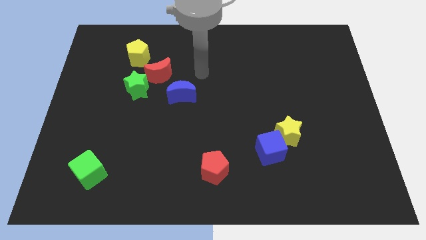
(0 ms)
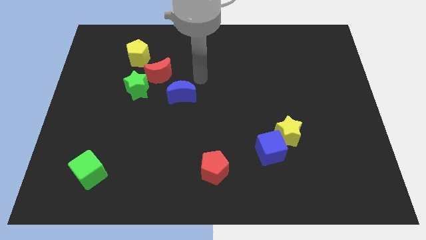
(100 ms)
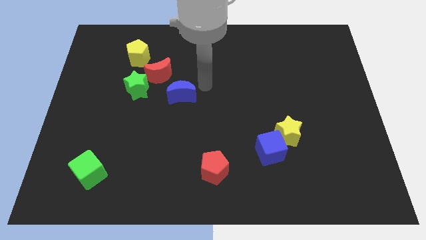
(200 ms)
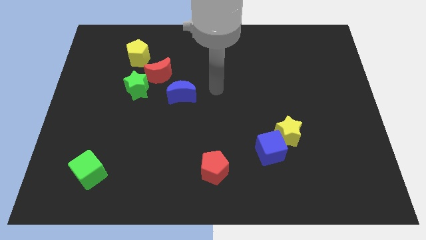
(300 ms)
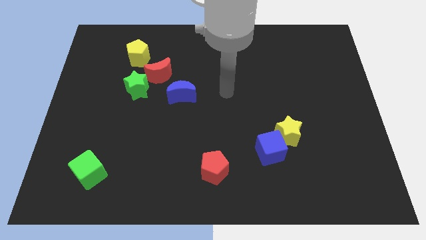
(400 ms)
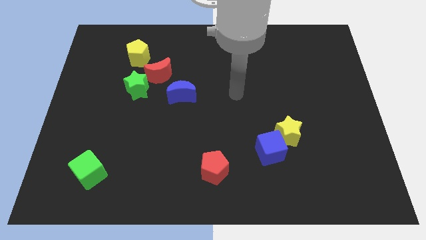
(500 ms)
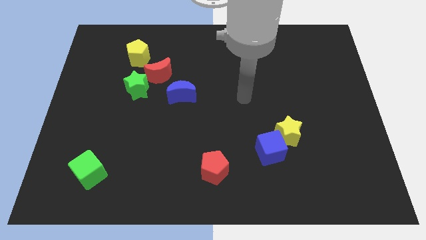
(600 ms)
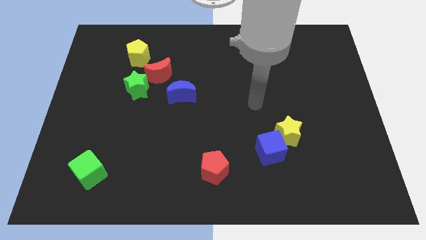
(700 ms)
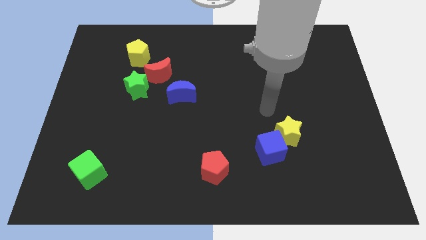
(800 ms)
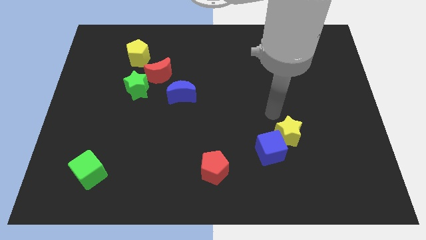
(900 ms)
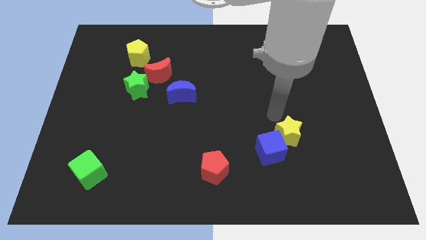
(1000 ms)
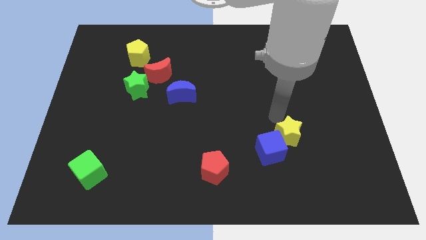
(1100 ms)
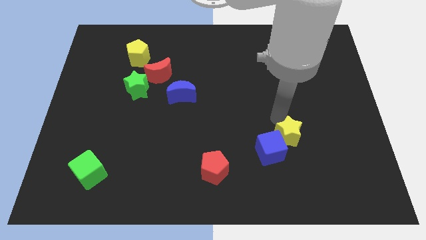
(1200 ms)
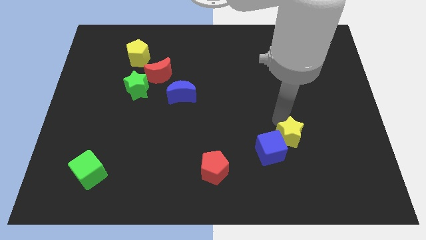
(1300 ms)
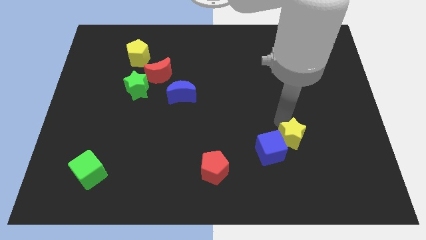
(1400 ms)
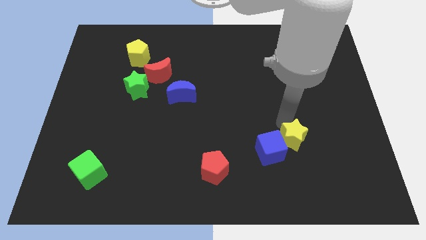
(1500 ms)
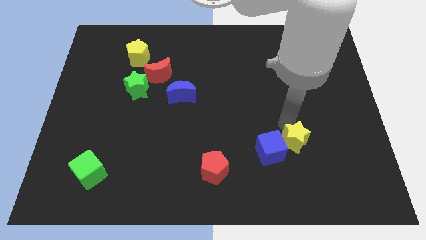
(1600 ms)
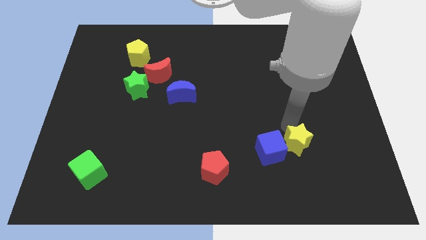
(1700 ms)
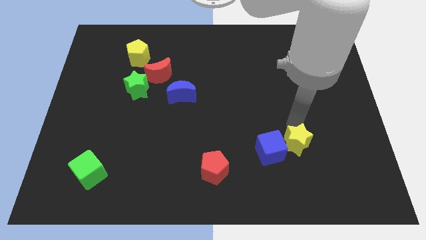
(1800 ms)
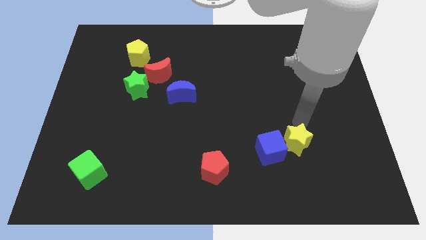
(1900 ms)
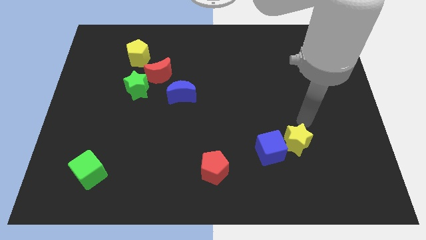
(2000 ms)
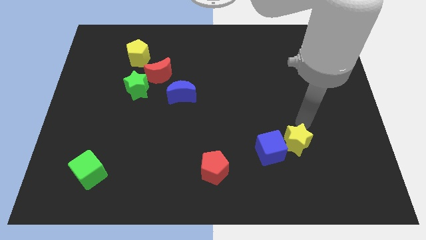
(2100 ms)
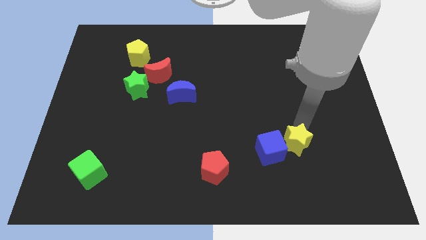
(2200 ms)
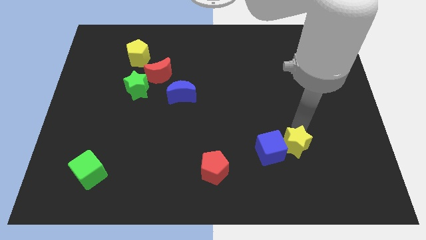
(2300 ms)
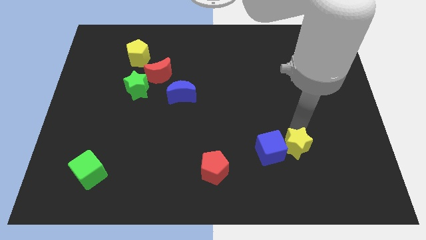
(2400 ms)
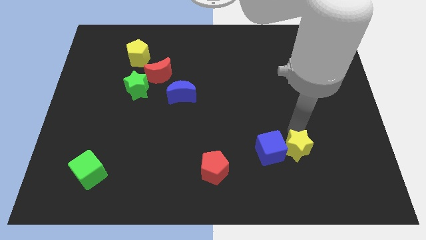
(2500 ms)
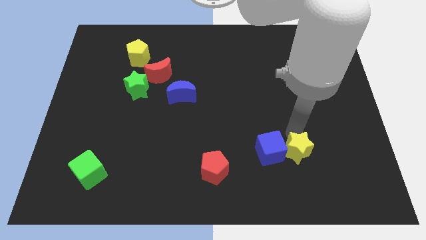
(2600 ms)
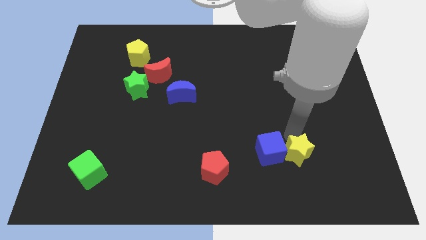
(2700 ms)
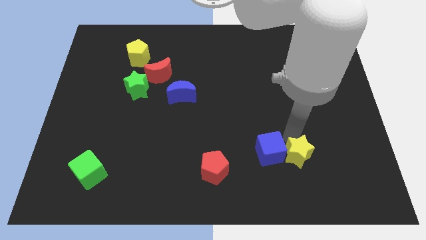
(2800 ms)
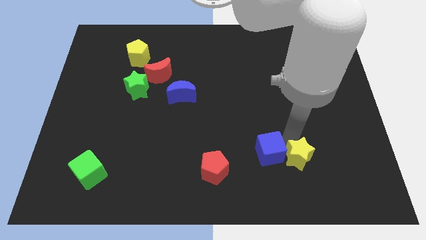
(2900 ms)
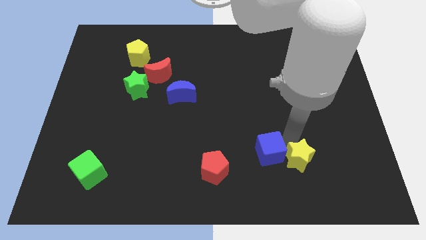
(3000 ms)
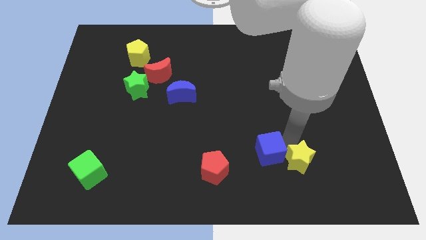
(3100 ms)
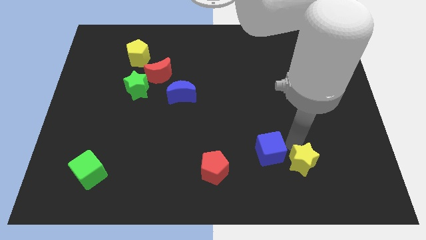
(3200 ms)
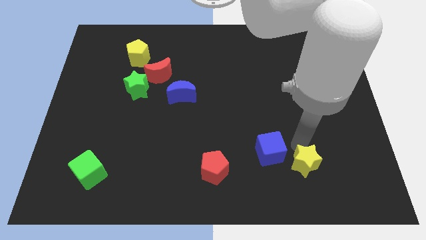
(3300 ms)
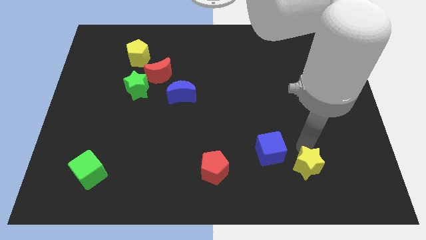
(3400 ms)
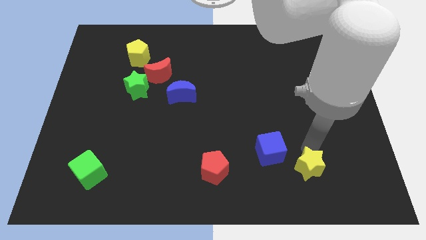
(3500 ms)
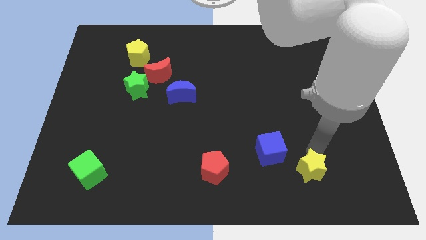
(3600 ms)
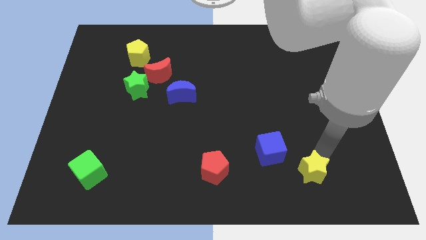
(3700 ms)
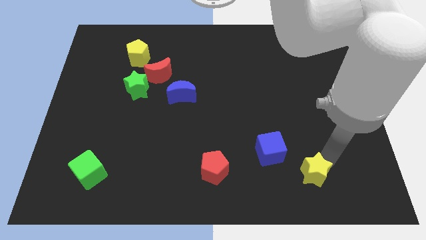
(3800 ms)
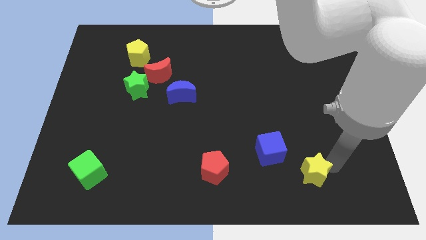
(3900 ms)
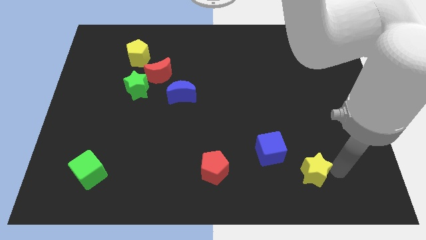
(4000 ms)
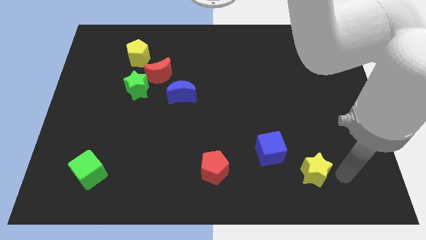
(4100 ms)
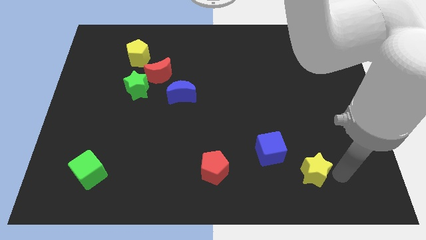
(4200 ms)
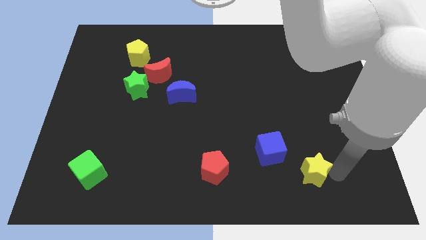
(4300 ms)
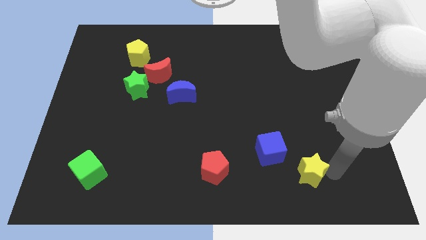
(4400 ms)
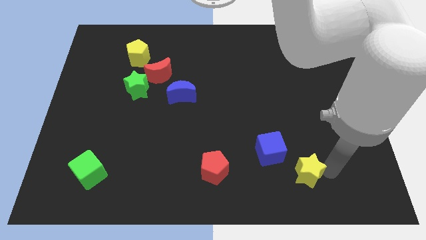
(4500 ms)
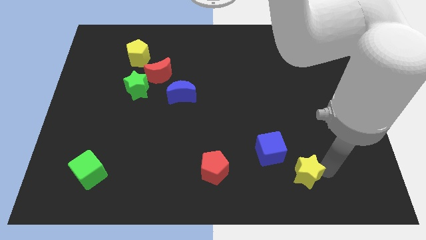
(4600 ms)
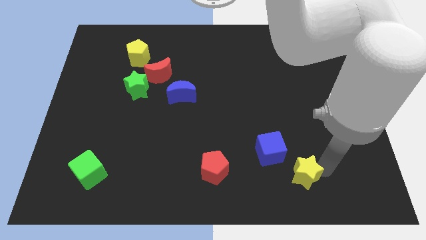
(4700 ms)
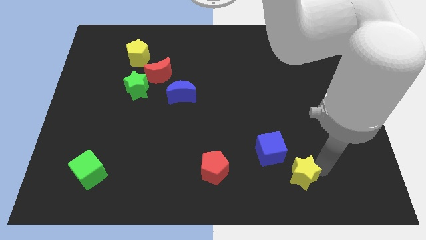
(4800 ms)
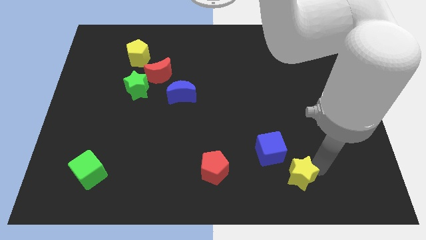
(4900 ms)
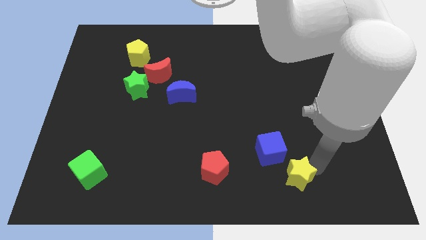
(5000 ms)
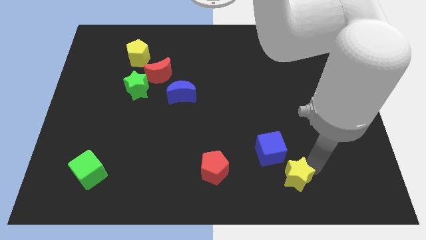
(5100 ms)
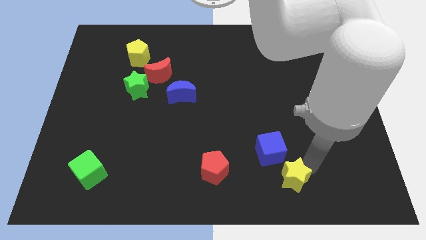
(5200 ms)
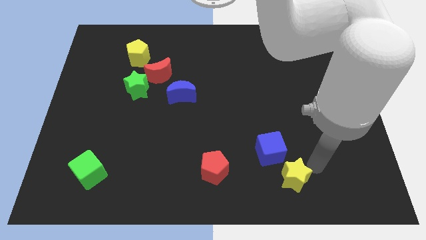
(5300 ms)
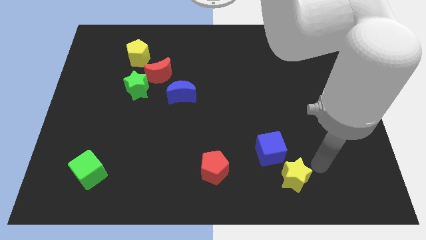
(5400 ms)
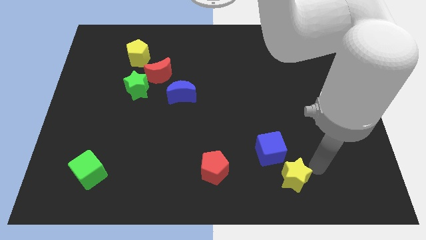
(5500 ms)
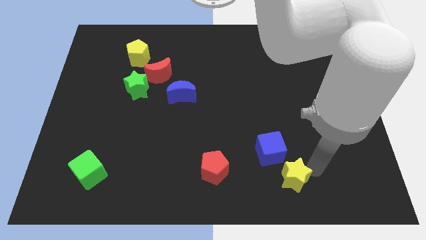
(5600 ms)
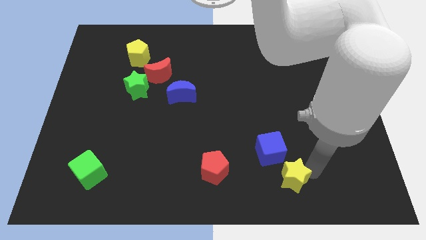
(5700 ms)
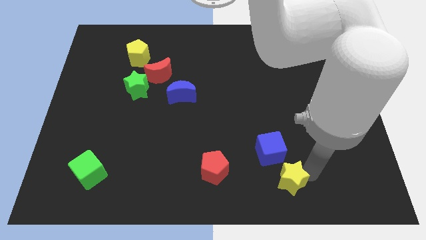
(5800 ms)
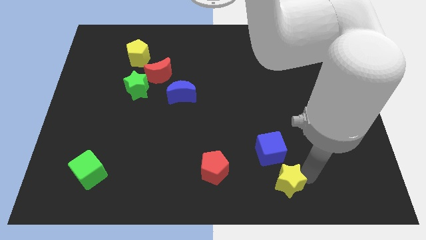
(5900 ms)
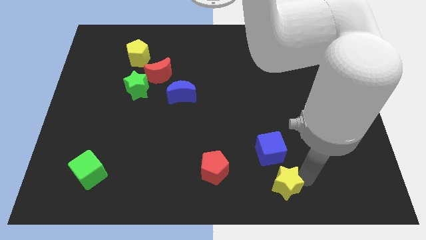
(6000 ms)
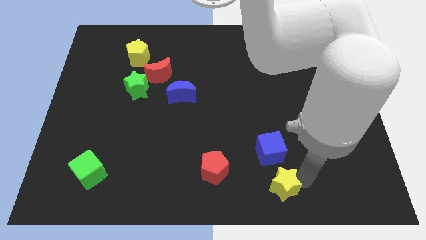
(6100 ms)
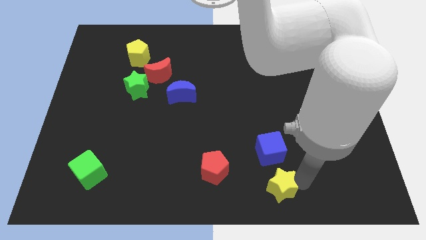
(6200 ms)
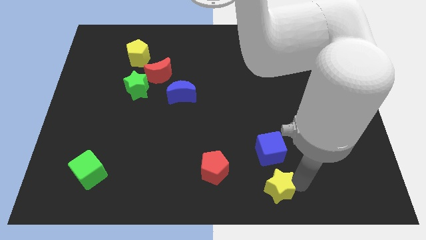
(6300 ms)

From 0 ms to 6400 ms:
push the yellow star to the bottom side
